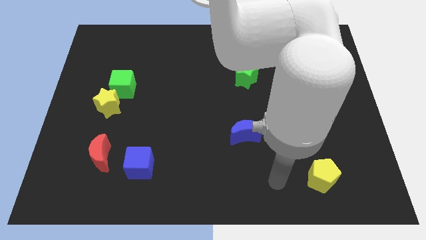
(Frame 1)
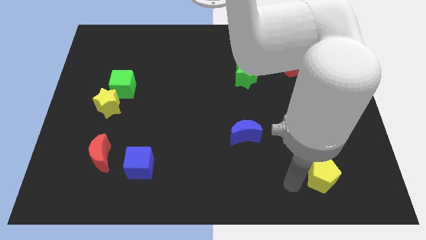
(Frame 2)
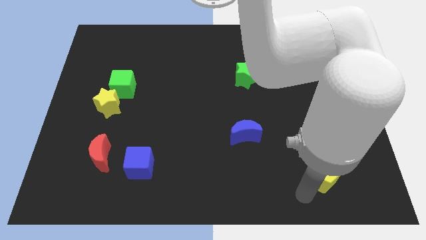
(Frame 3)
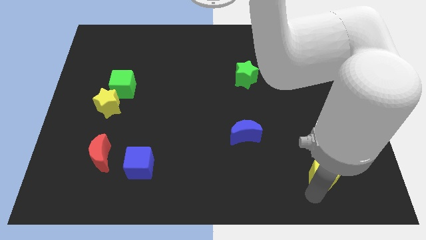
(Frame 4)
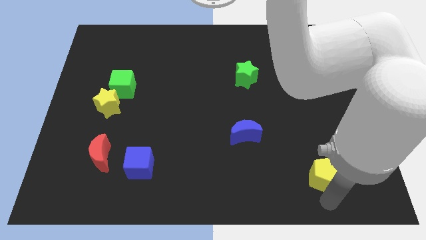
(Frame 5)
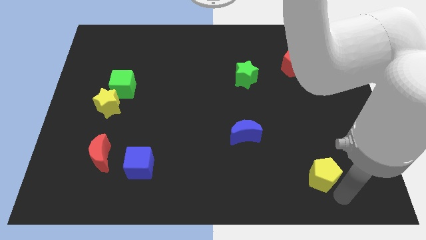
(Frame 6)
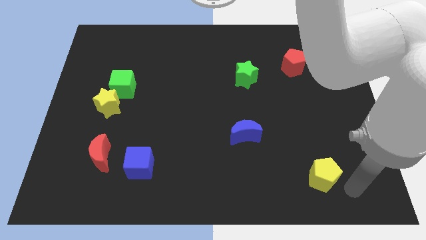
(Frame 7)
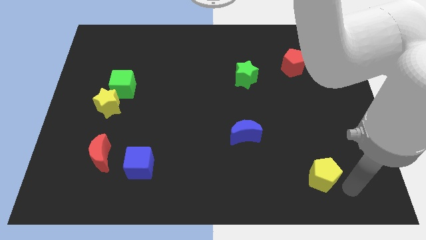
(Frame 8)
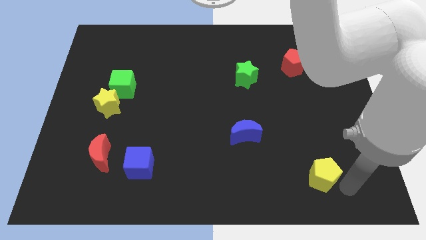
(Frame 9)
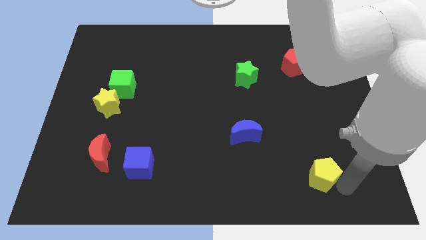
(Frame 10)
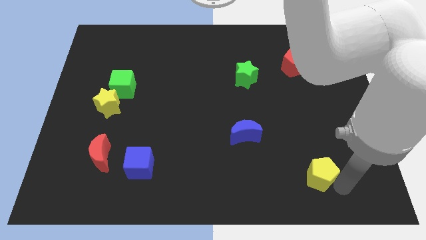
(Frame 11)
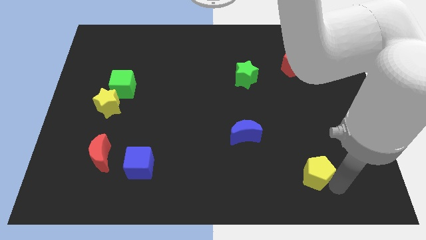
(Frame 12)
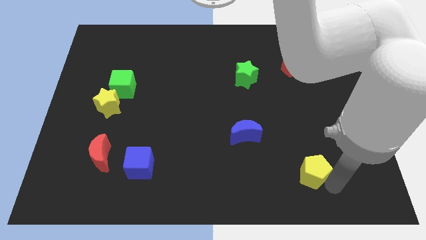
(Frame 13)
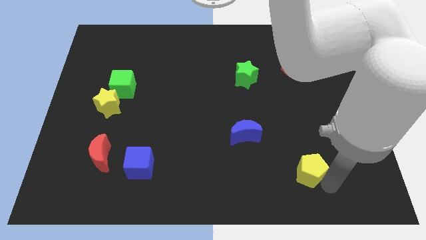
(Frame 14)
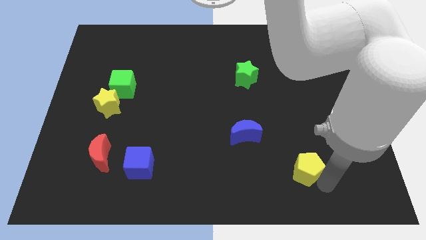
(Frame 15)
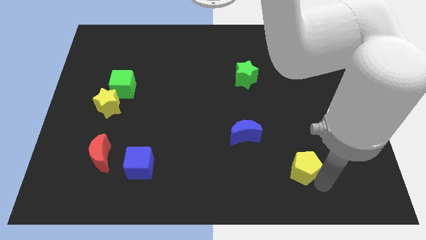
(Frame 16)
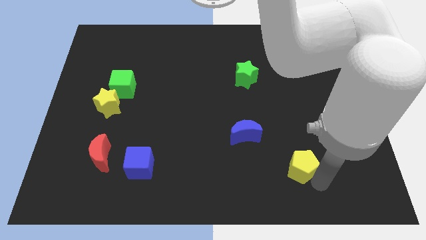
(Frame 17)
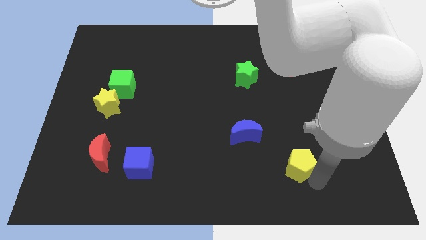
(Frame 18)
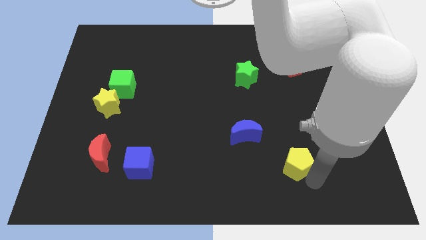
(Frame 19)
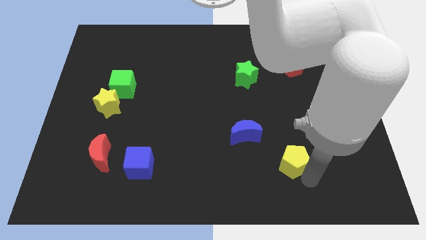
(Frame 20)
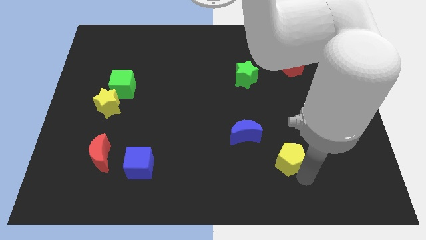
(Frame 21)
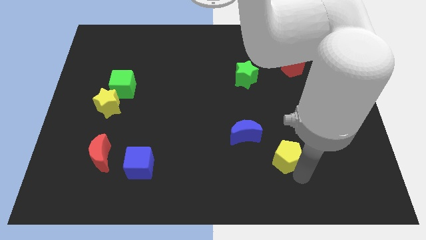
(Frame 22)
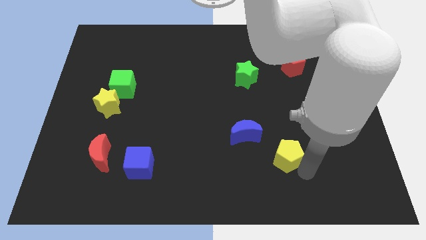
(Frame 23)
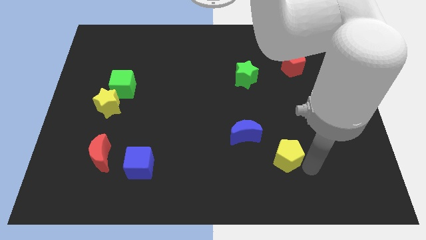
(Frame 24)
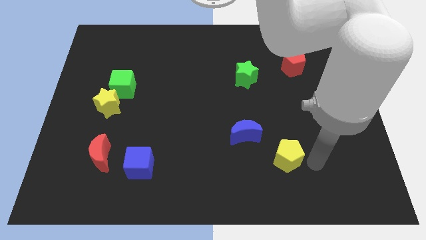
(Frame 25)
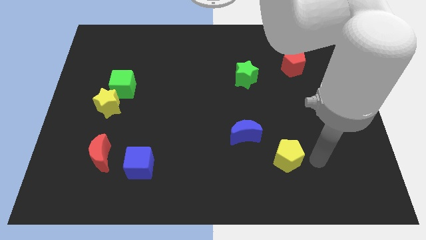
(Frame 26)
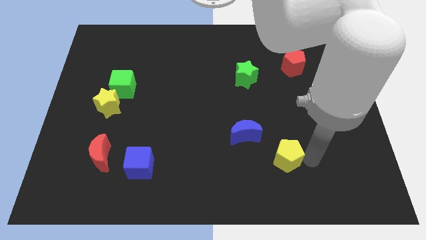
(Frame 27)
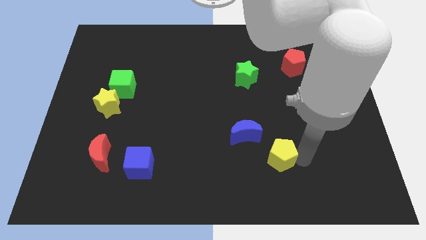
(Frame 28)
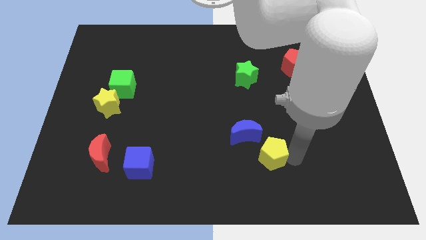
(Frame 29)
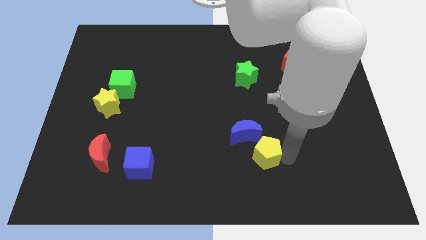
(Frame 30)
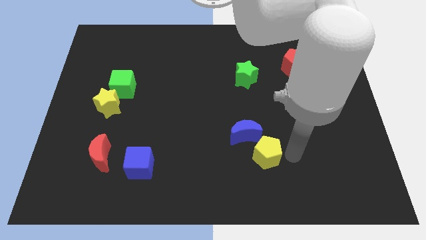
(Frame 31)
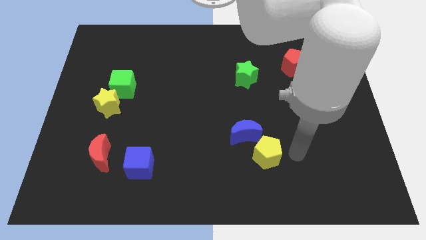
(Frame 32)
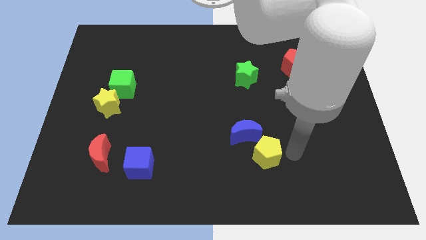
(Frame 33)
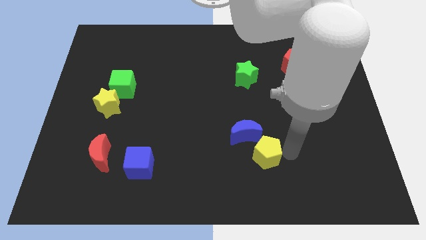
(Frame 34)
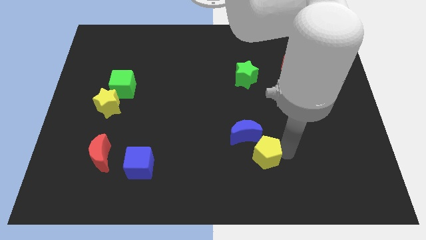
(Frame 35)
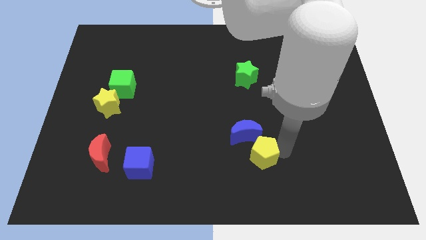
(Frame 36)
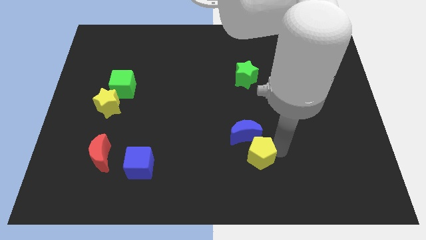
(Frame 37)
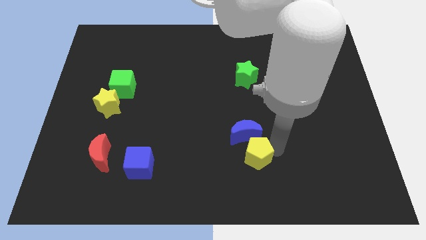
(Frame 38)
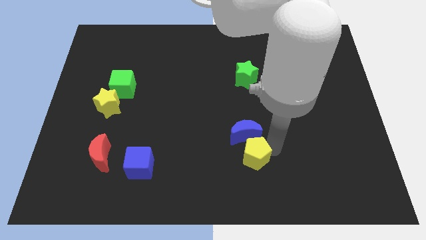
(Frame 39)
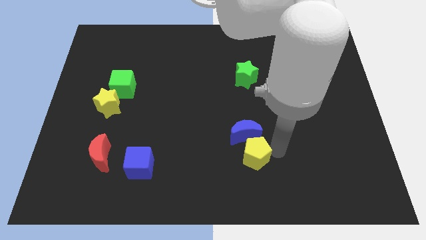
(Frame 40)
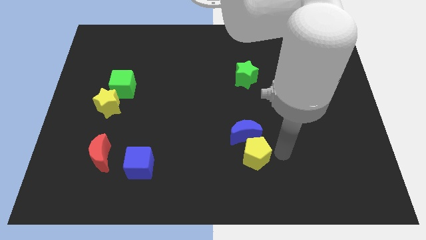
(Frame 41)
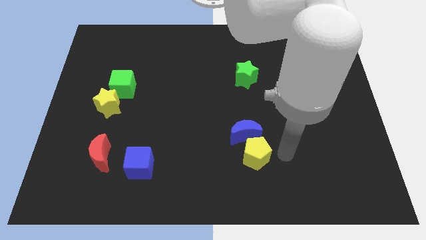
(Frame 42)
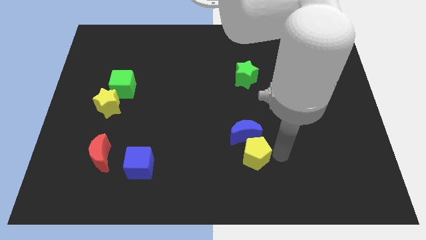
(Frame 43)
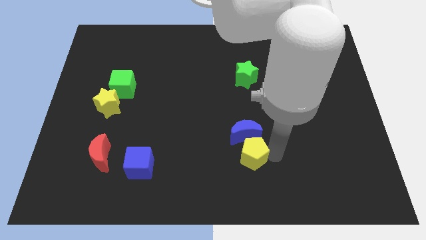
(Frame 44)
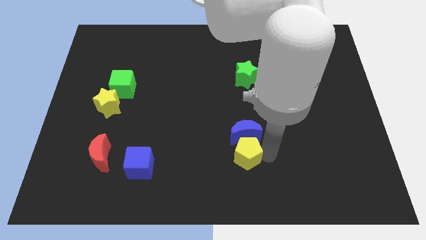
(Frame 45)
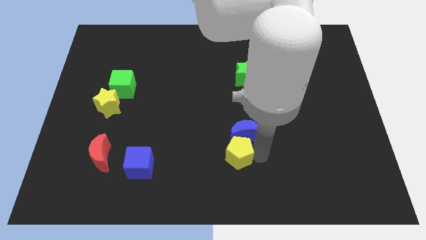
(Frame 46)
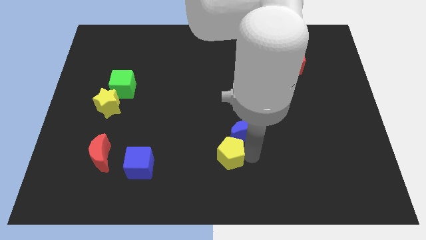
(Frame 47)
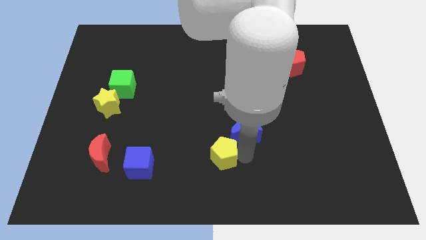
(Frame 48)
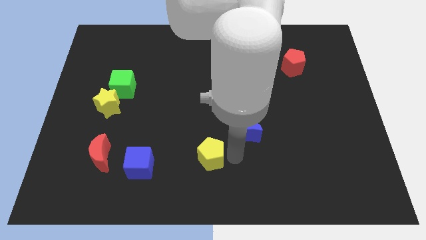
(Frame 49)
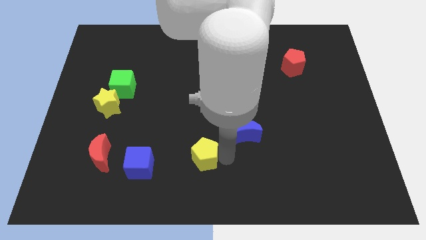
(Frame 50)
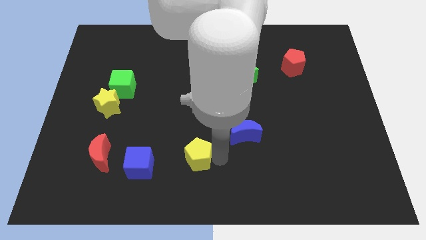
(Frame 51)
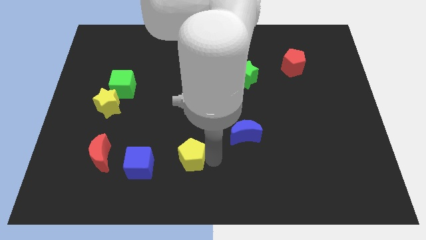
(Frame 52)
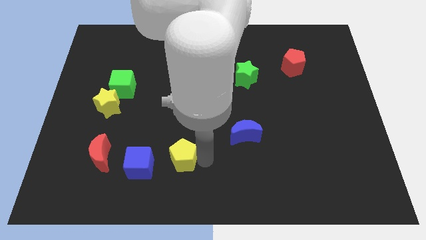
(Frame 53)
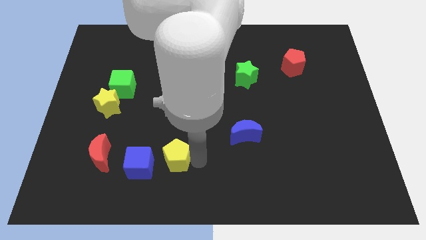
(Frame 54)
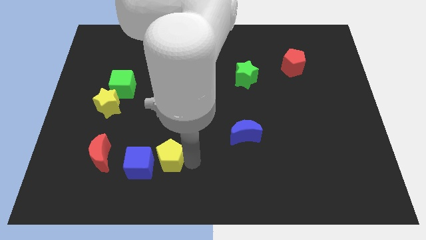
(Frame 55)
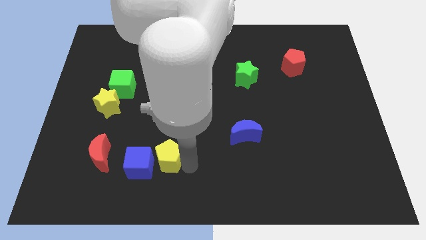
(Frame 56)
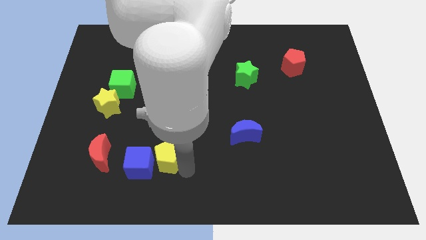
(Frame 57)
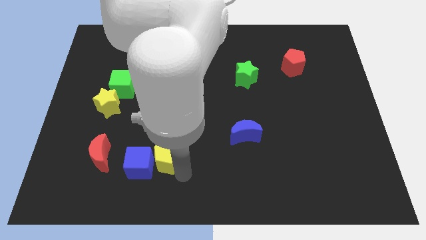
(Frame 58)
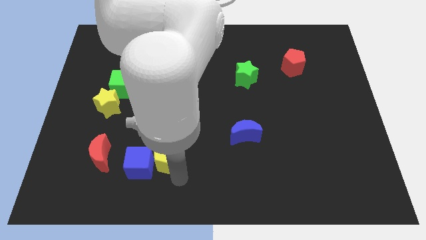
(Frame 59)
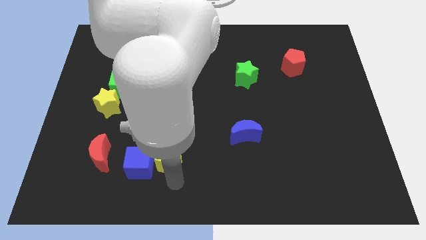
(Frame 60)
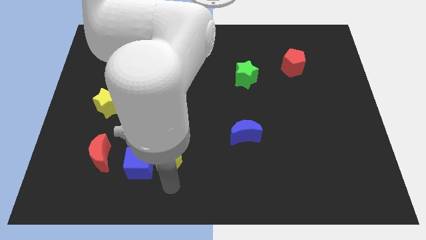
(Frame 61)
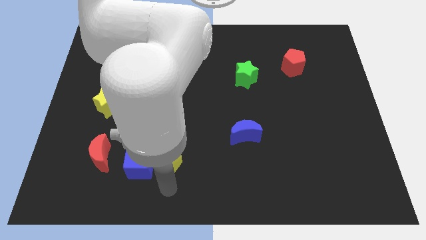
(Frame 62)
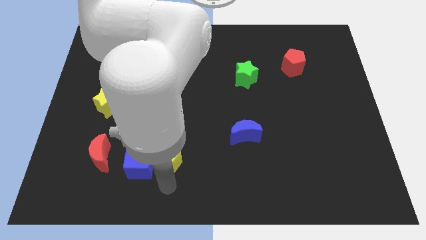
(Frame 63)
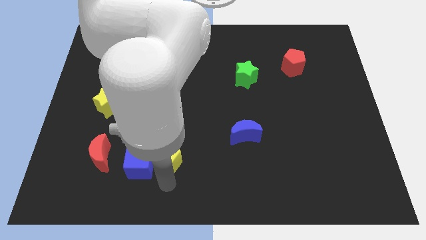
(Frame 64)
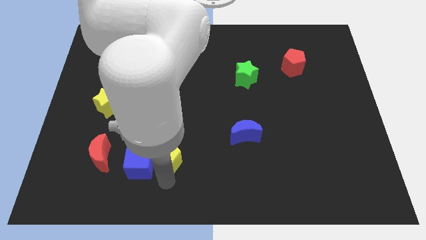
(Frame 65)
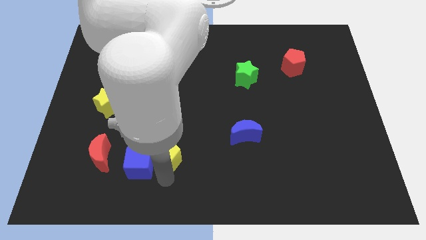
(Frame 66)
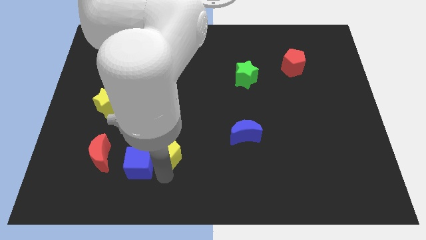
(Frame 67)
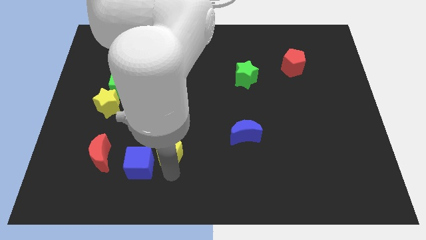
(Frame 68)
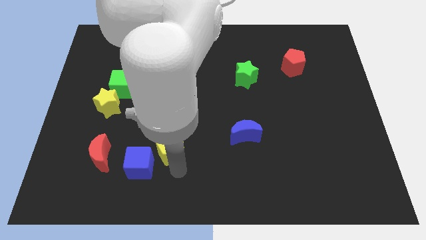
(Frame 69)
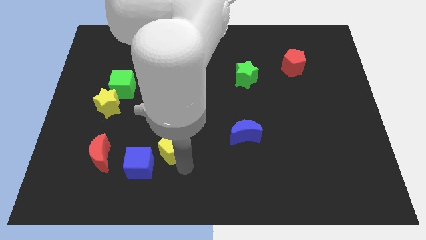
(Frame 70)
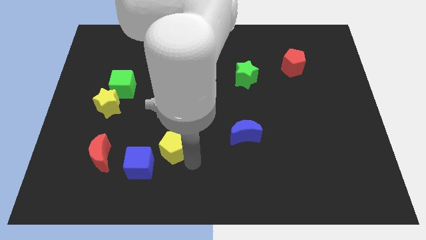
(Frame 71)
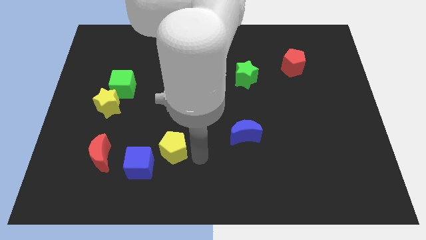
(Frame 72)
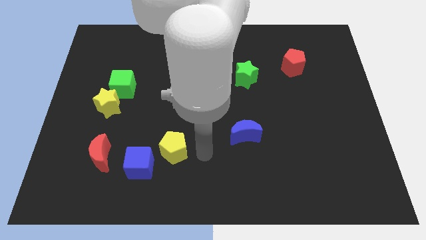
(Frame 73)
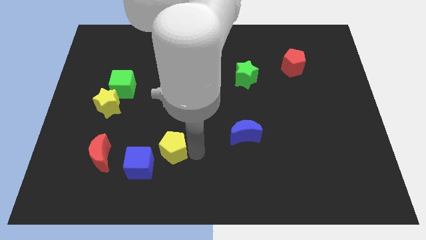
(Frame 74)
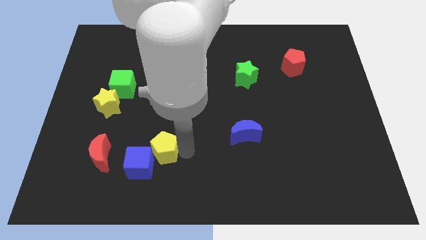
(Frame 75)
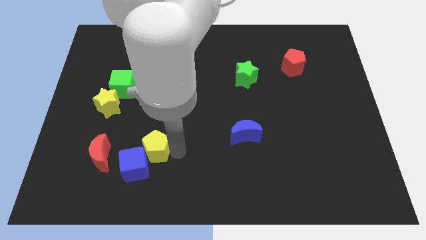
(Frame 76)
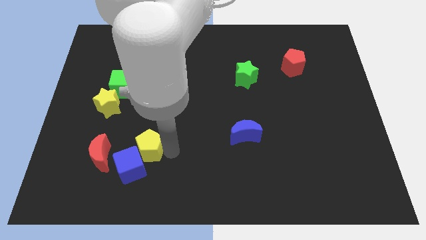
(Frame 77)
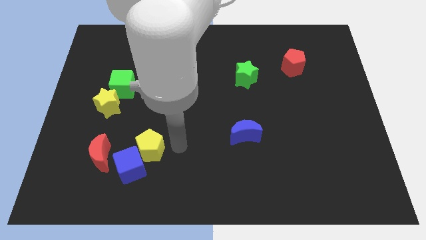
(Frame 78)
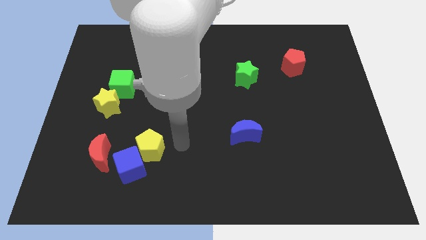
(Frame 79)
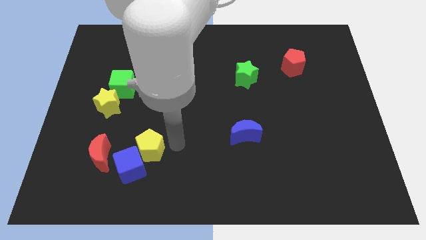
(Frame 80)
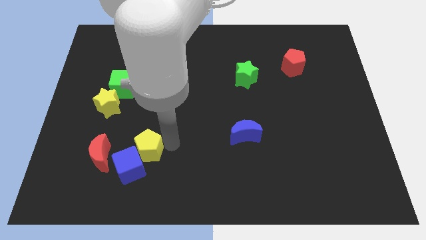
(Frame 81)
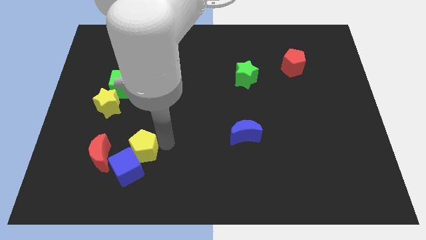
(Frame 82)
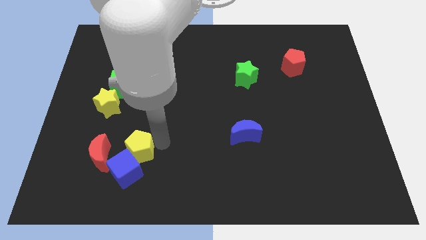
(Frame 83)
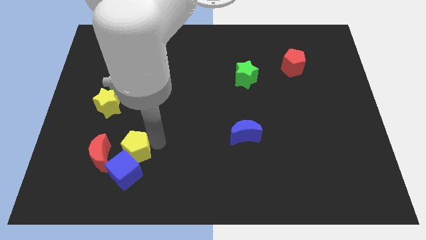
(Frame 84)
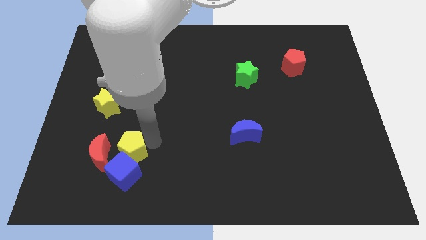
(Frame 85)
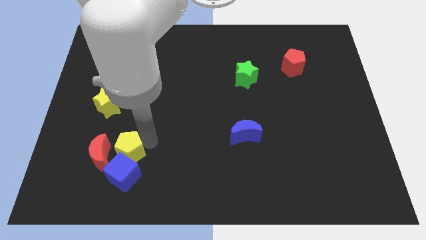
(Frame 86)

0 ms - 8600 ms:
slide the yellow pentagon to the red moon

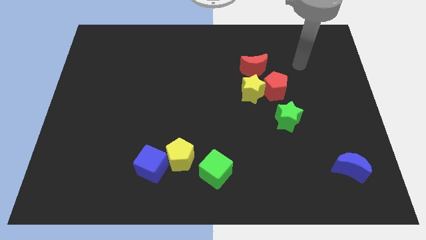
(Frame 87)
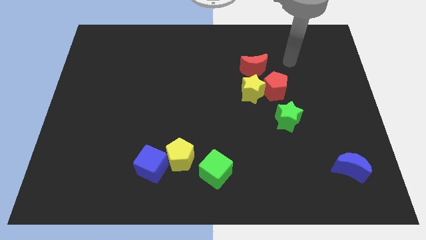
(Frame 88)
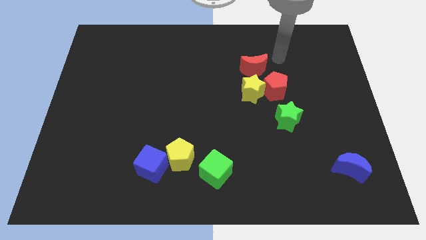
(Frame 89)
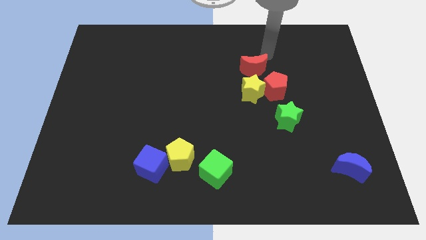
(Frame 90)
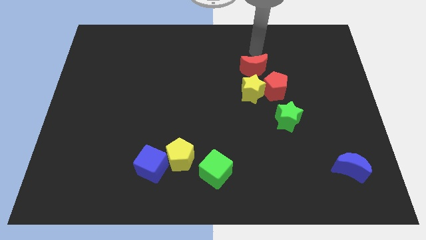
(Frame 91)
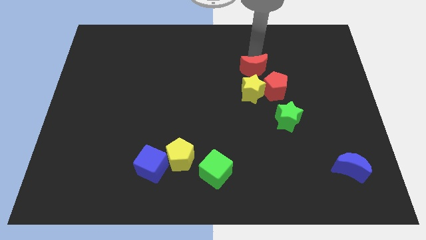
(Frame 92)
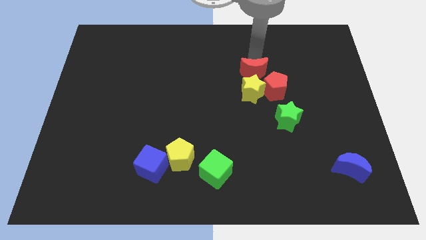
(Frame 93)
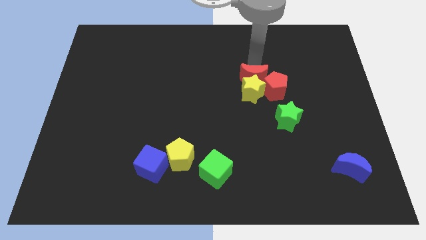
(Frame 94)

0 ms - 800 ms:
push the red moon close to the yellow star
